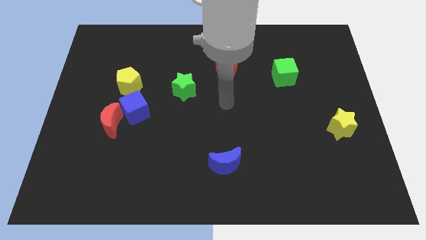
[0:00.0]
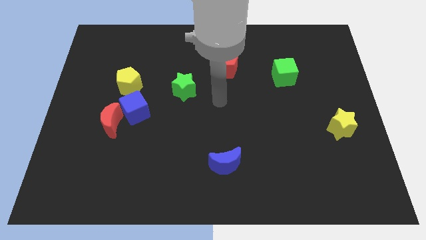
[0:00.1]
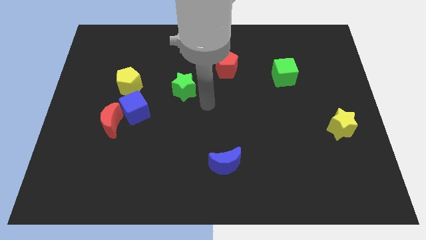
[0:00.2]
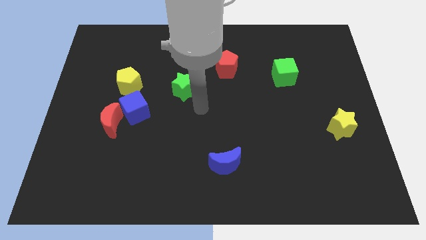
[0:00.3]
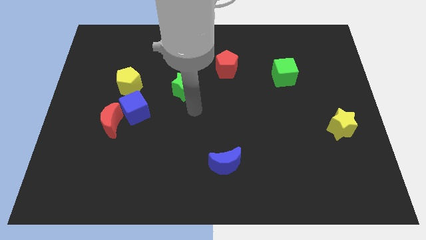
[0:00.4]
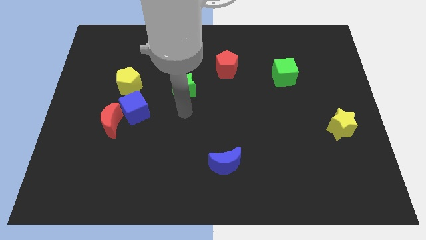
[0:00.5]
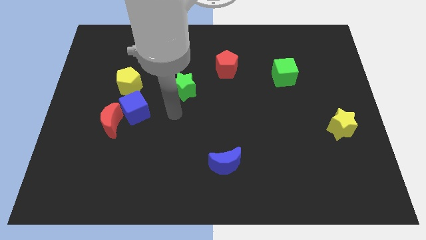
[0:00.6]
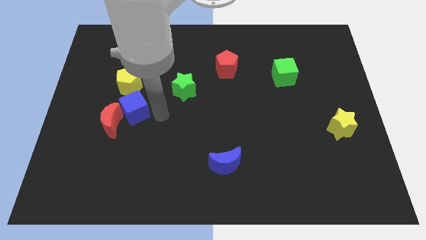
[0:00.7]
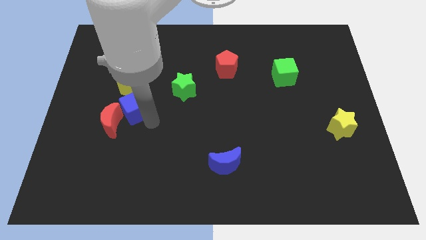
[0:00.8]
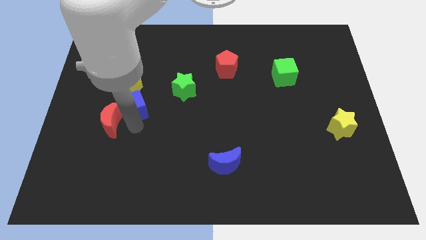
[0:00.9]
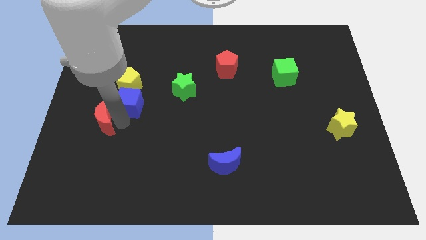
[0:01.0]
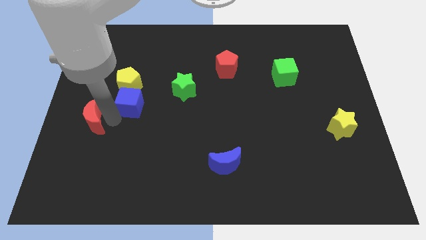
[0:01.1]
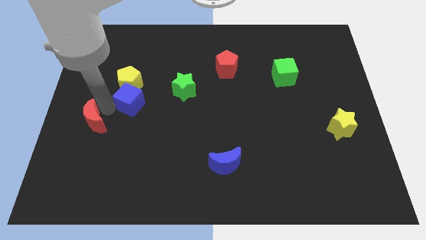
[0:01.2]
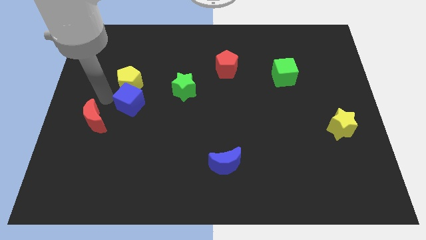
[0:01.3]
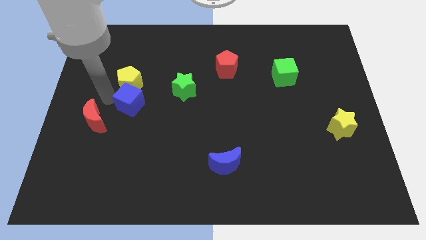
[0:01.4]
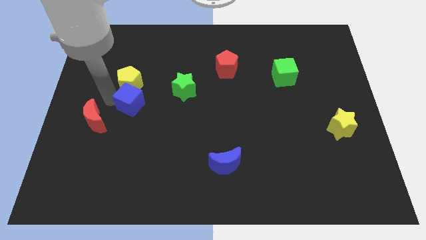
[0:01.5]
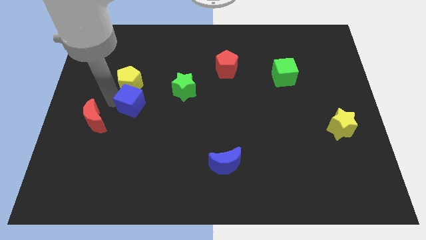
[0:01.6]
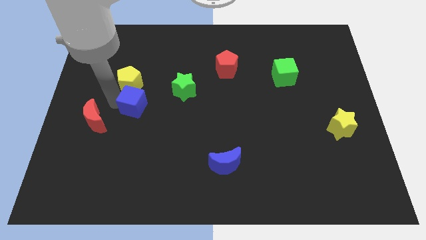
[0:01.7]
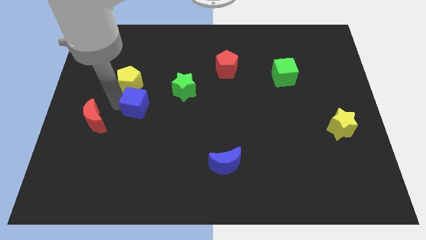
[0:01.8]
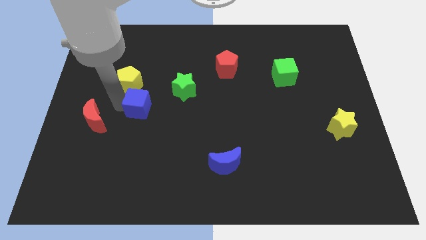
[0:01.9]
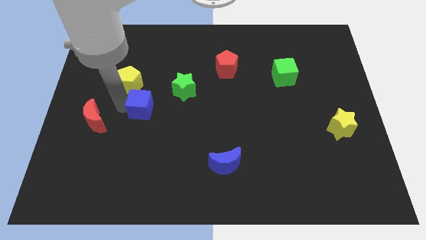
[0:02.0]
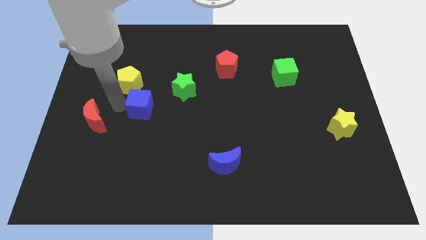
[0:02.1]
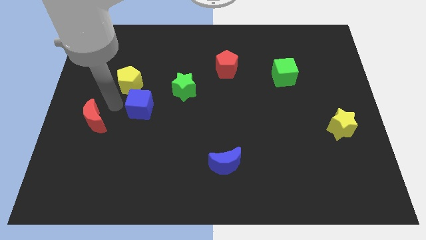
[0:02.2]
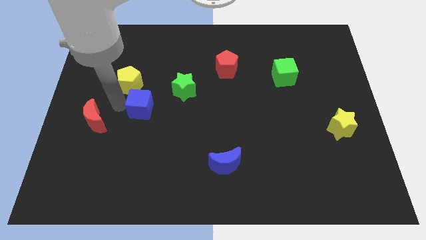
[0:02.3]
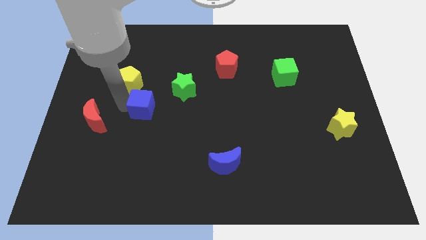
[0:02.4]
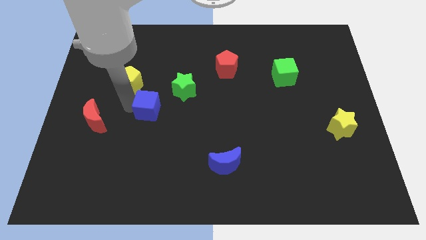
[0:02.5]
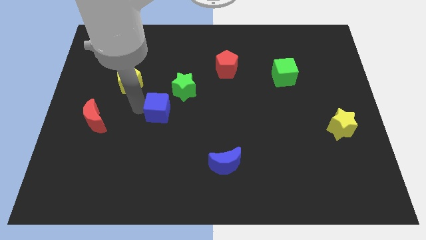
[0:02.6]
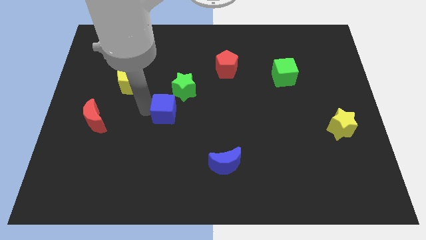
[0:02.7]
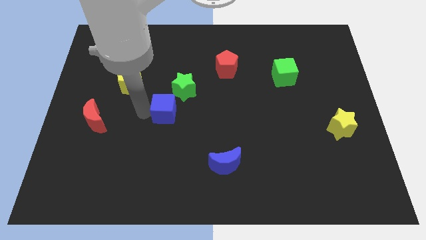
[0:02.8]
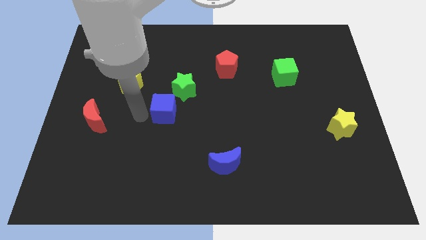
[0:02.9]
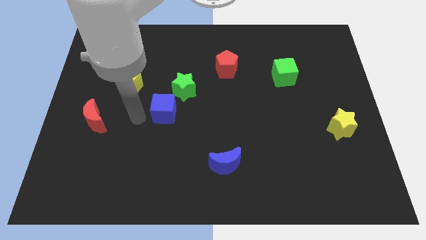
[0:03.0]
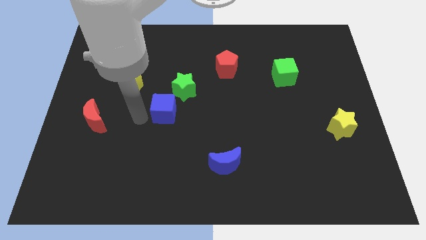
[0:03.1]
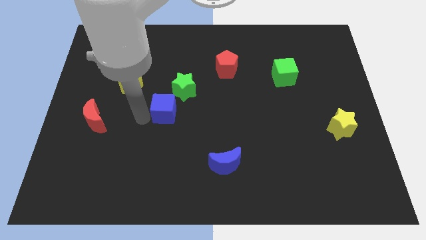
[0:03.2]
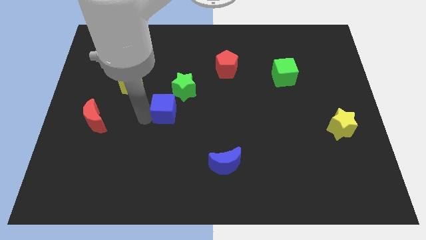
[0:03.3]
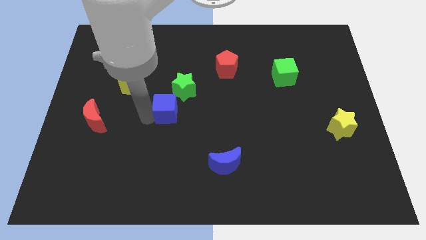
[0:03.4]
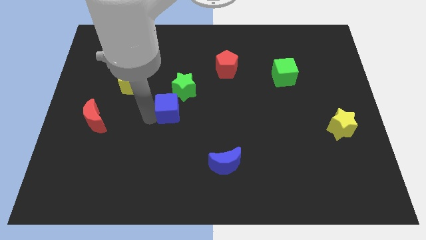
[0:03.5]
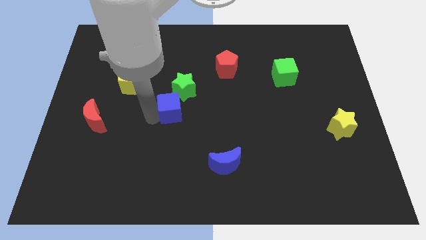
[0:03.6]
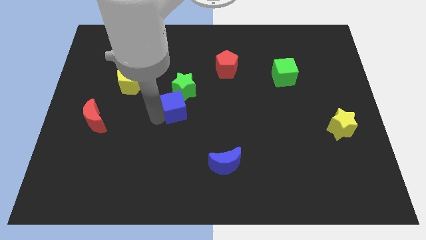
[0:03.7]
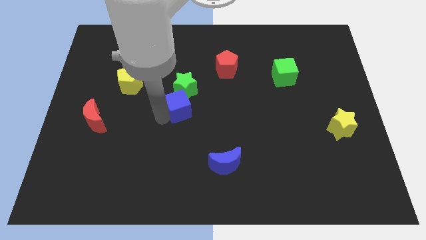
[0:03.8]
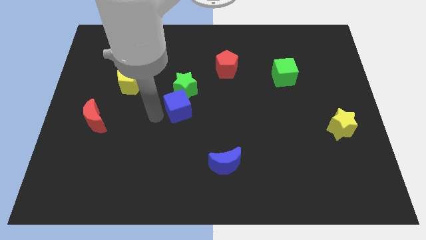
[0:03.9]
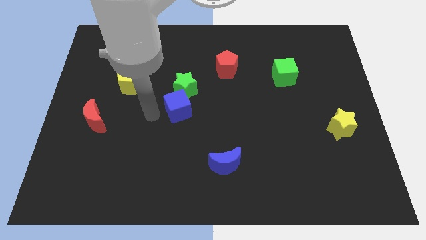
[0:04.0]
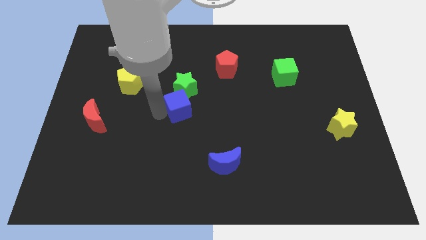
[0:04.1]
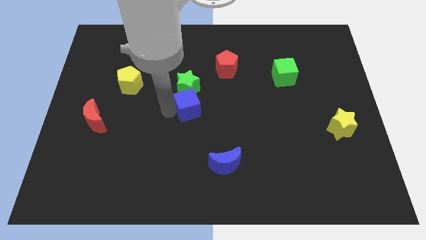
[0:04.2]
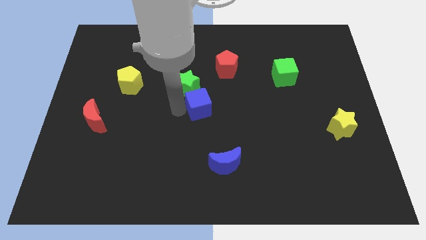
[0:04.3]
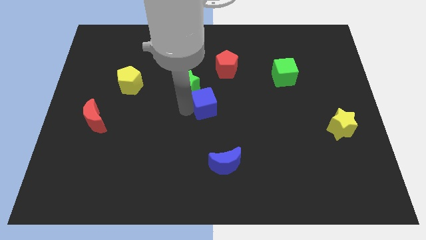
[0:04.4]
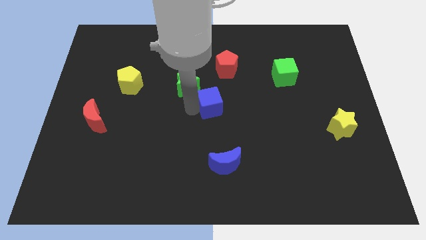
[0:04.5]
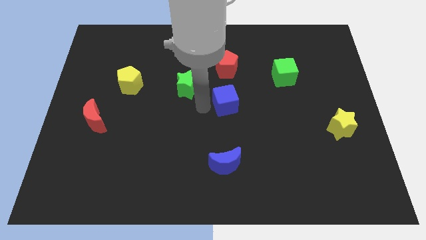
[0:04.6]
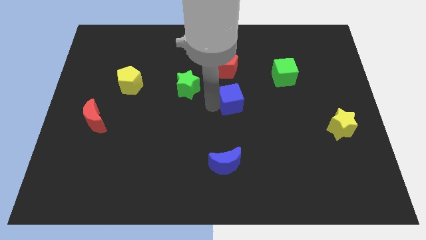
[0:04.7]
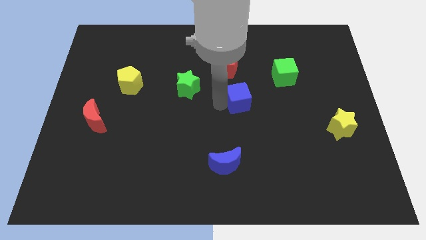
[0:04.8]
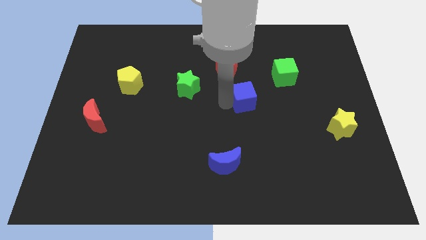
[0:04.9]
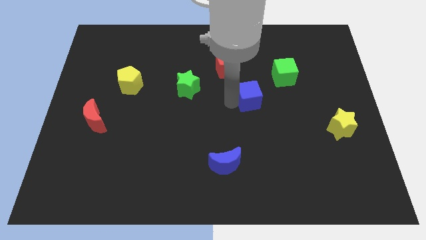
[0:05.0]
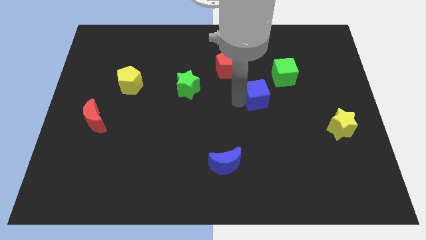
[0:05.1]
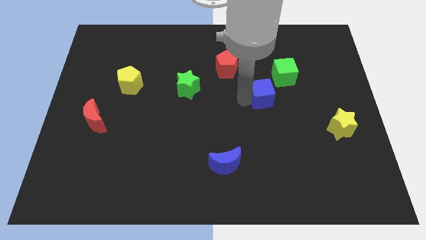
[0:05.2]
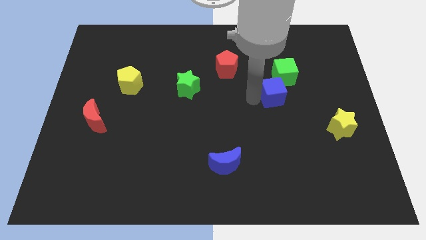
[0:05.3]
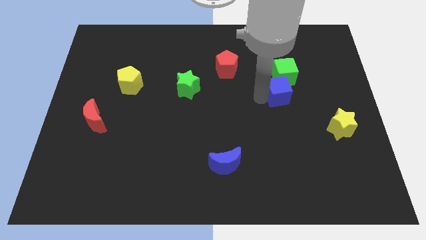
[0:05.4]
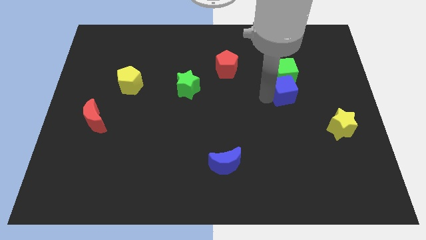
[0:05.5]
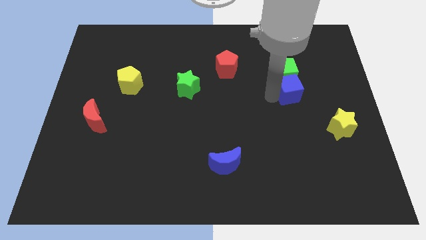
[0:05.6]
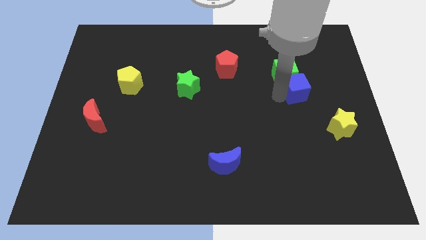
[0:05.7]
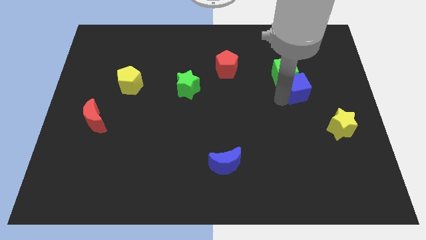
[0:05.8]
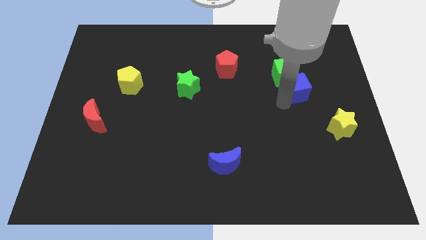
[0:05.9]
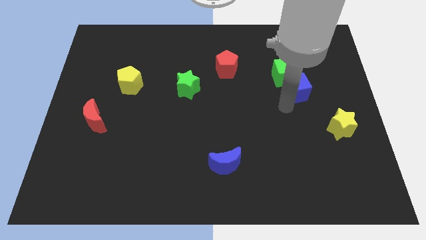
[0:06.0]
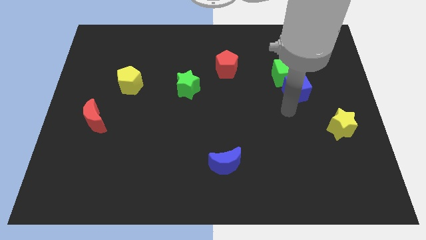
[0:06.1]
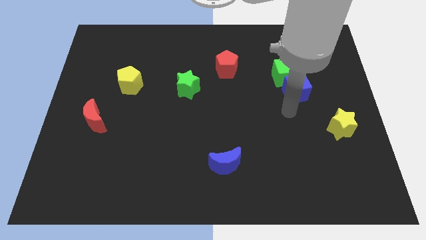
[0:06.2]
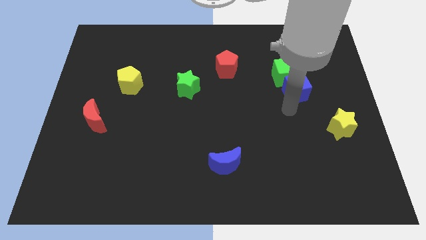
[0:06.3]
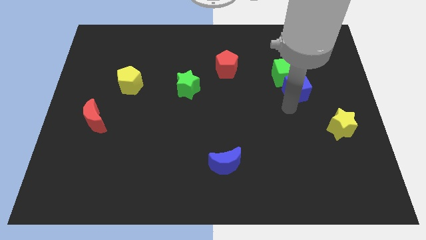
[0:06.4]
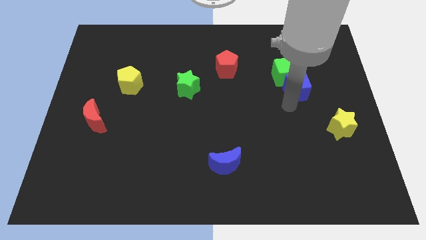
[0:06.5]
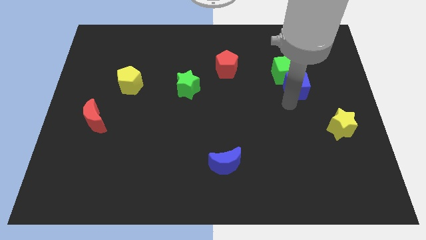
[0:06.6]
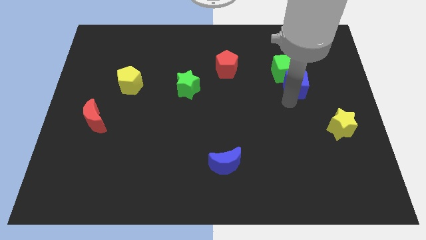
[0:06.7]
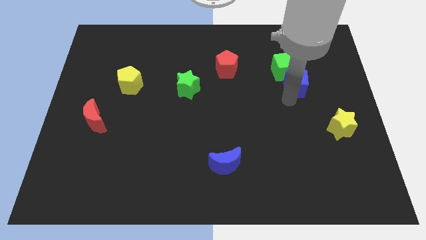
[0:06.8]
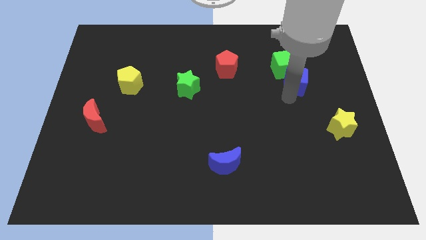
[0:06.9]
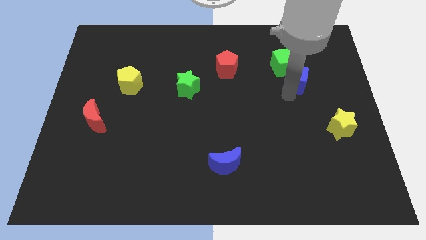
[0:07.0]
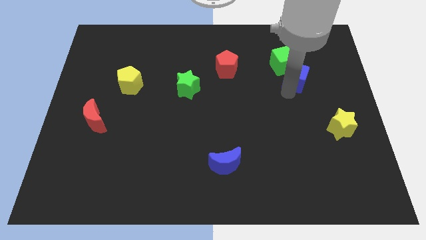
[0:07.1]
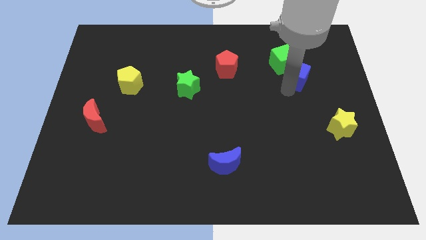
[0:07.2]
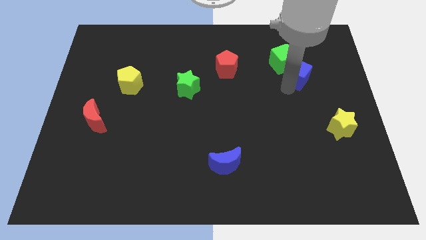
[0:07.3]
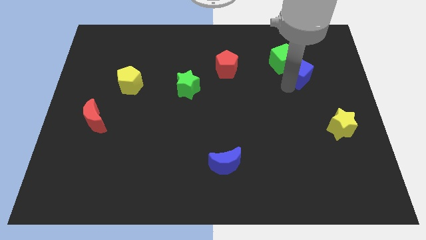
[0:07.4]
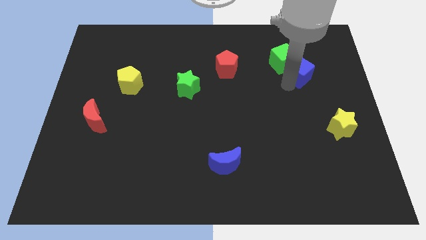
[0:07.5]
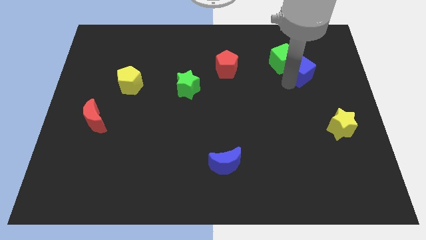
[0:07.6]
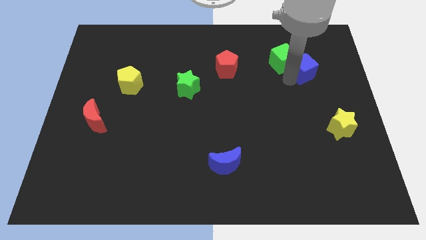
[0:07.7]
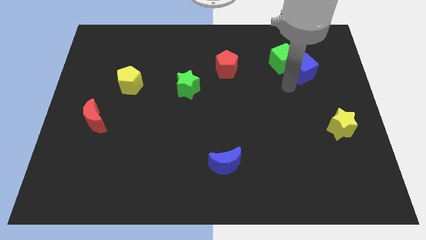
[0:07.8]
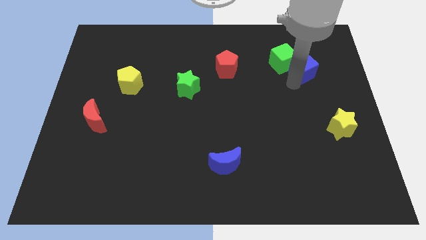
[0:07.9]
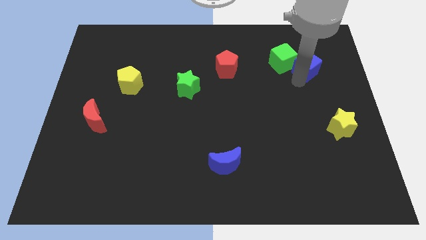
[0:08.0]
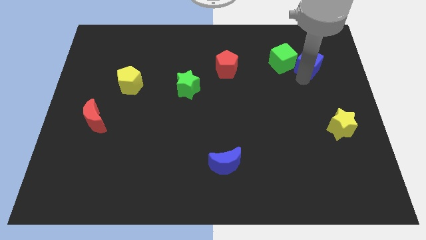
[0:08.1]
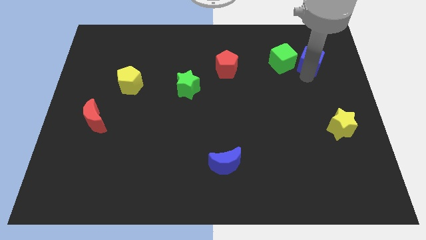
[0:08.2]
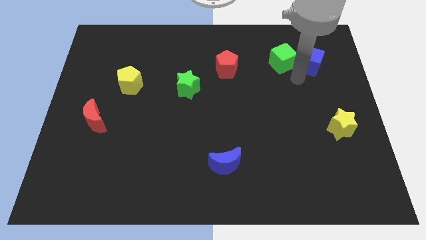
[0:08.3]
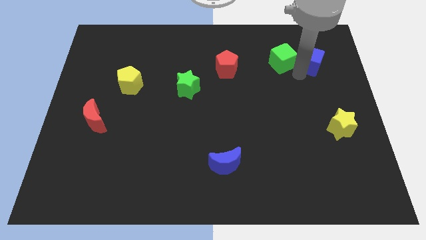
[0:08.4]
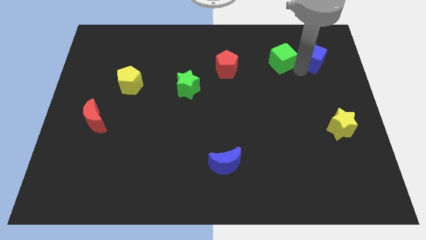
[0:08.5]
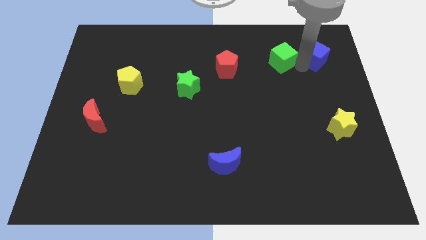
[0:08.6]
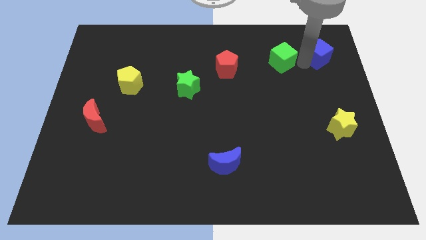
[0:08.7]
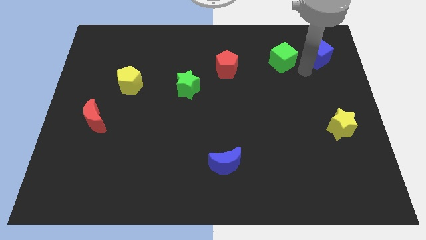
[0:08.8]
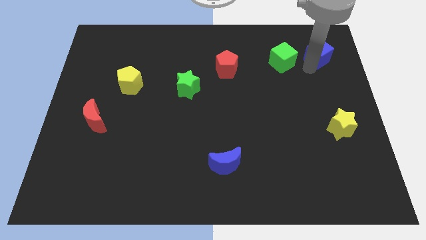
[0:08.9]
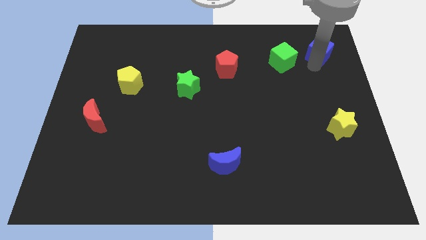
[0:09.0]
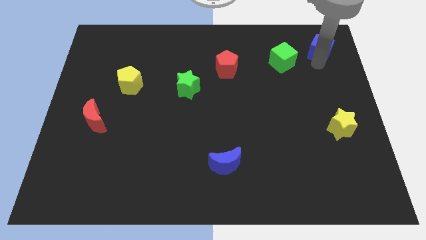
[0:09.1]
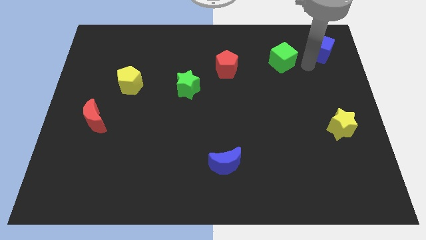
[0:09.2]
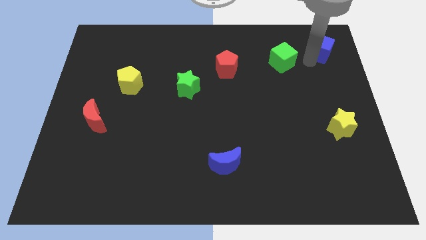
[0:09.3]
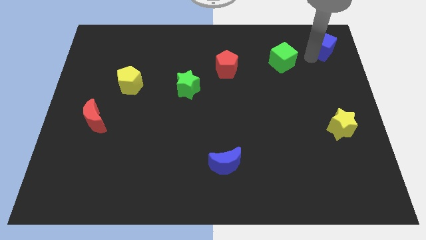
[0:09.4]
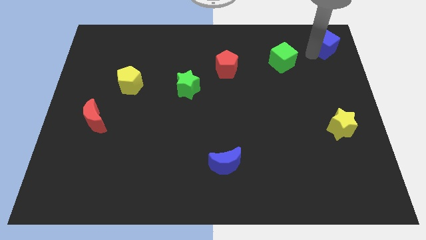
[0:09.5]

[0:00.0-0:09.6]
move the blue cube to the top right
